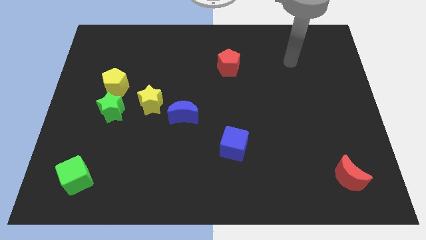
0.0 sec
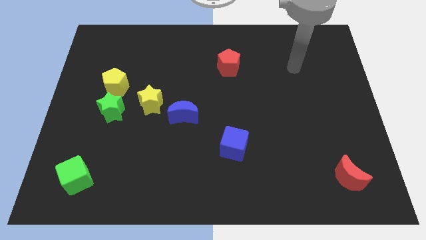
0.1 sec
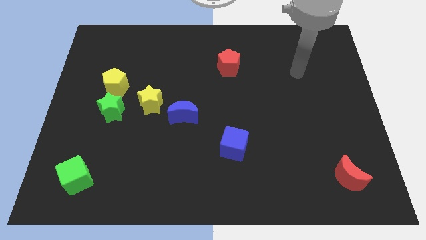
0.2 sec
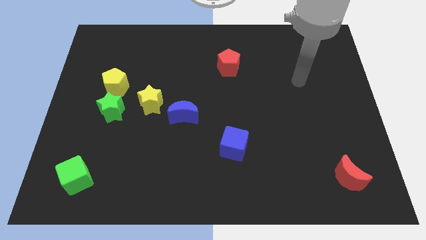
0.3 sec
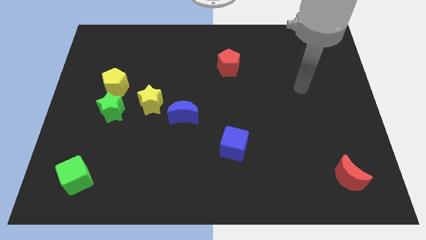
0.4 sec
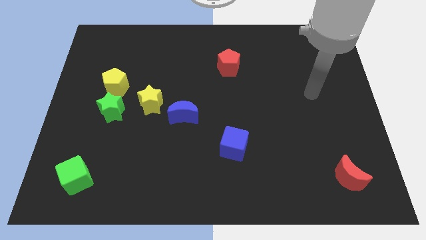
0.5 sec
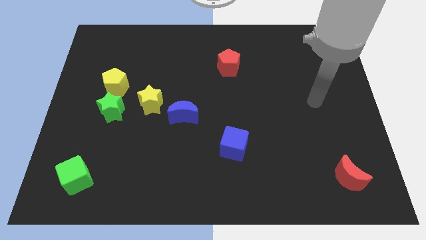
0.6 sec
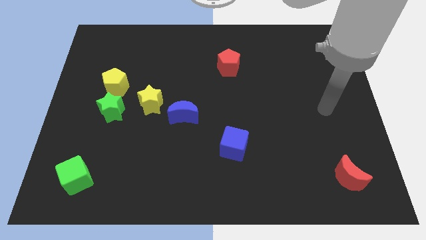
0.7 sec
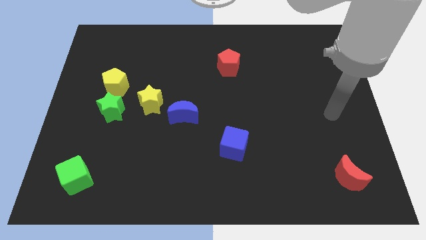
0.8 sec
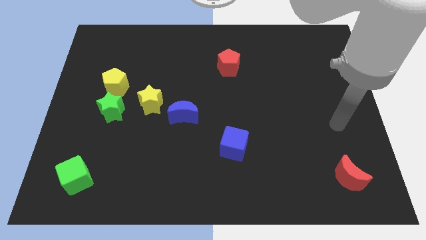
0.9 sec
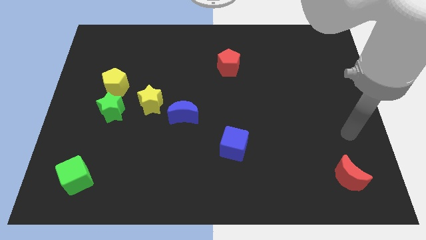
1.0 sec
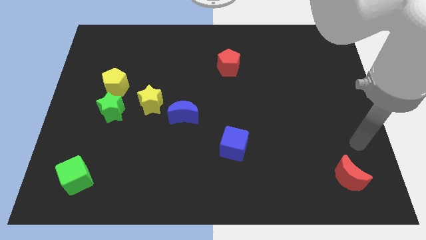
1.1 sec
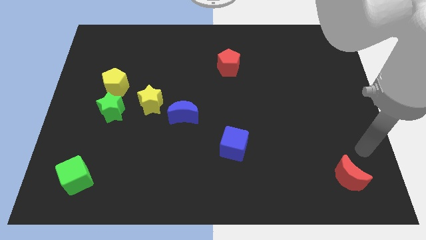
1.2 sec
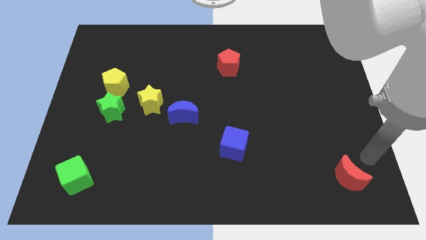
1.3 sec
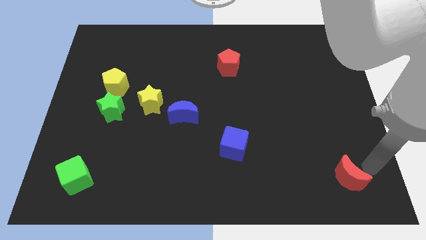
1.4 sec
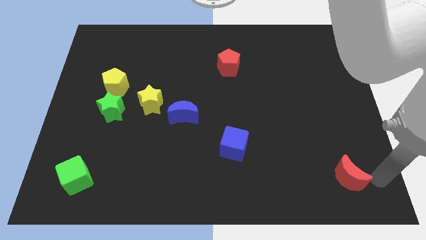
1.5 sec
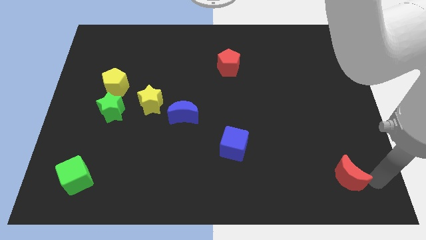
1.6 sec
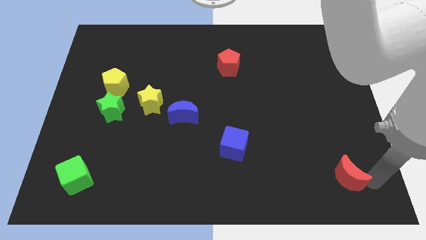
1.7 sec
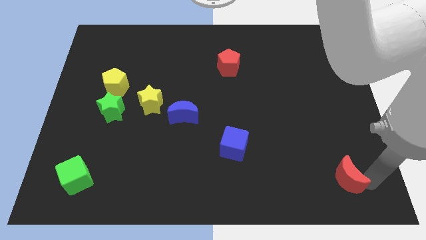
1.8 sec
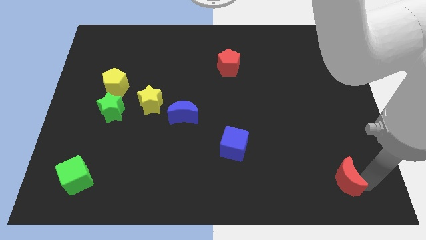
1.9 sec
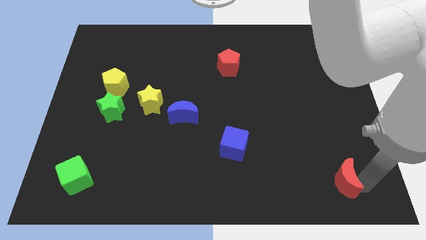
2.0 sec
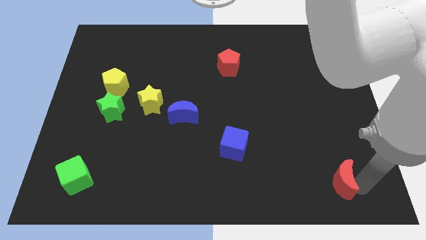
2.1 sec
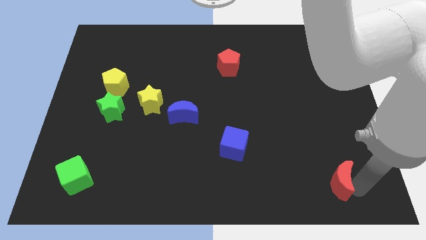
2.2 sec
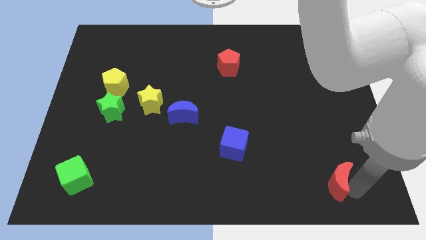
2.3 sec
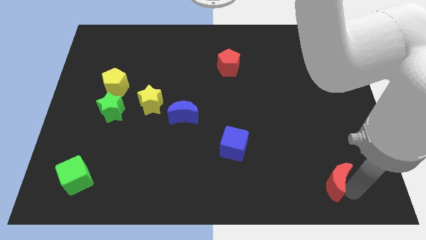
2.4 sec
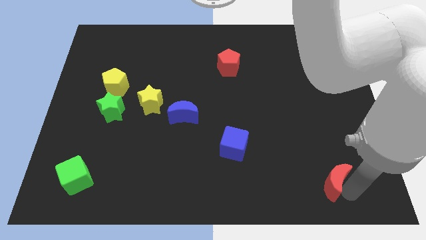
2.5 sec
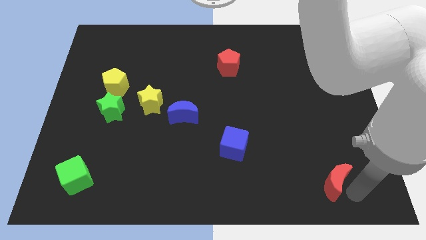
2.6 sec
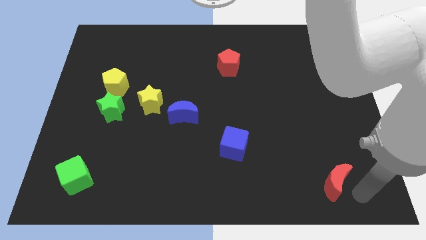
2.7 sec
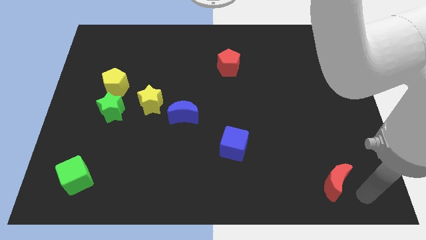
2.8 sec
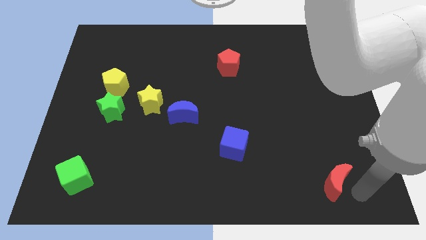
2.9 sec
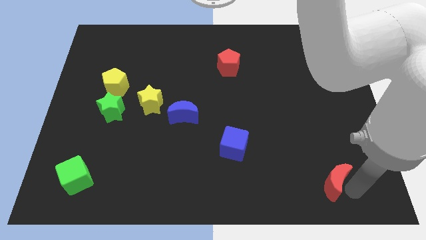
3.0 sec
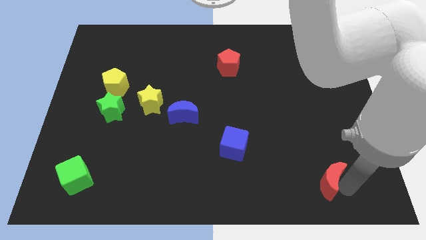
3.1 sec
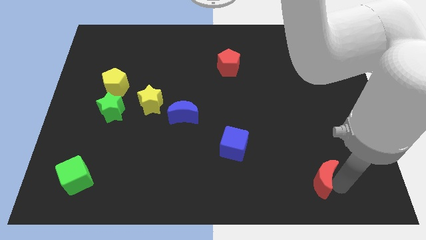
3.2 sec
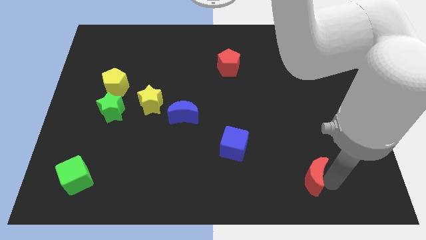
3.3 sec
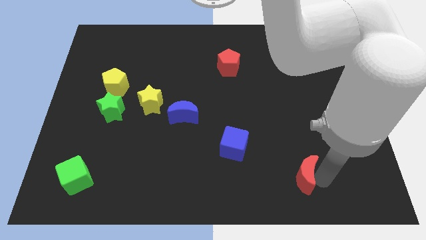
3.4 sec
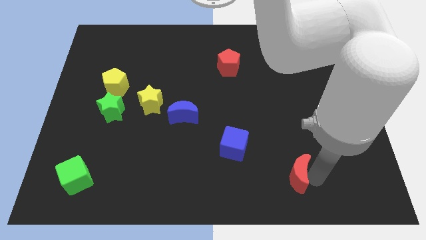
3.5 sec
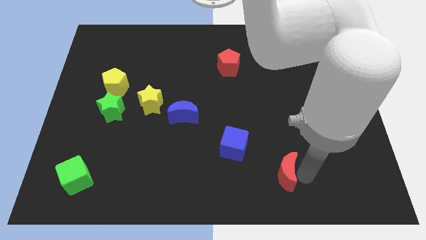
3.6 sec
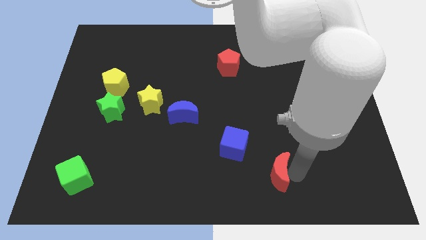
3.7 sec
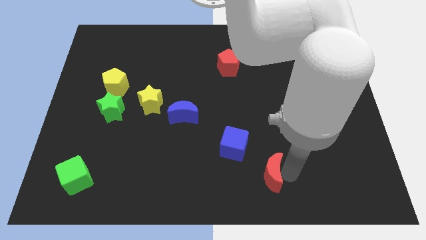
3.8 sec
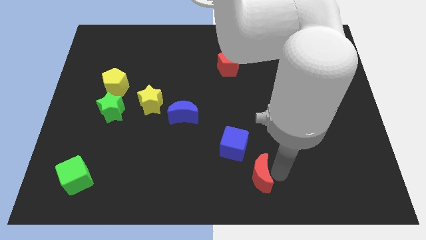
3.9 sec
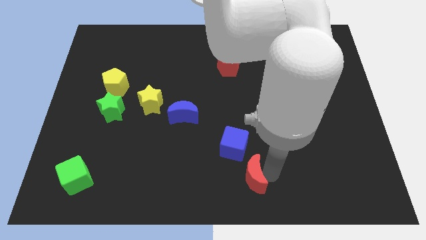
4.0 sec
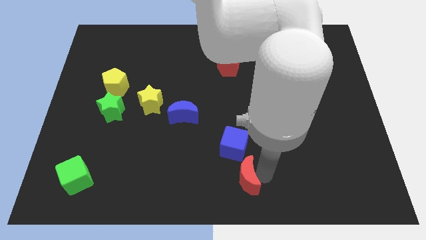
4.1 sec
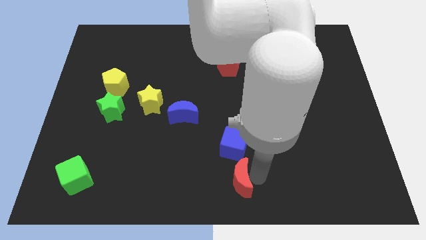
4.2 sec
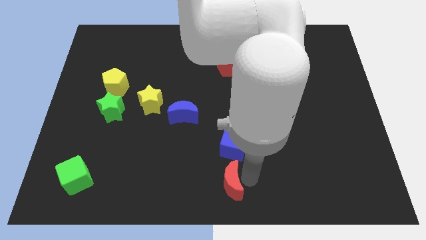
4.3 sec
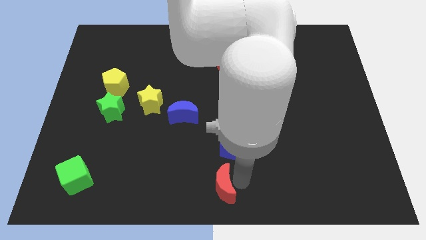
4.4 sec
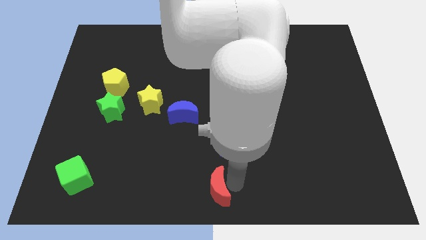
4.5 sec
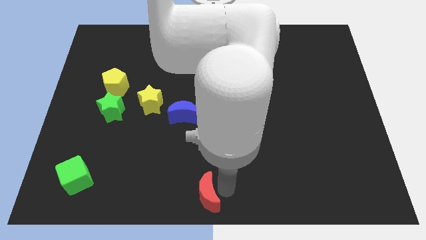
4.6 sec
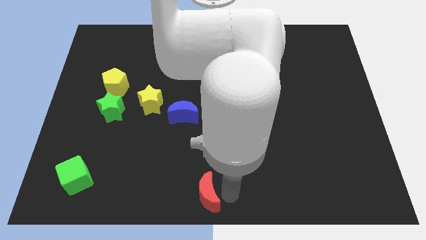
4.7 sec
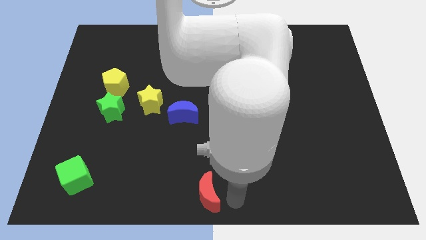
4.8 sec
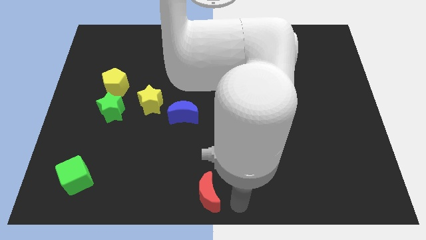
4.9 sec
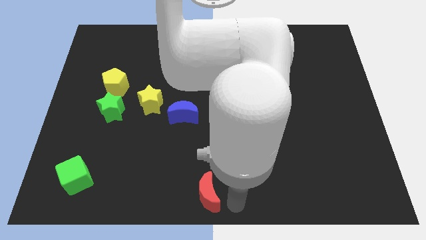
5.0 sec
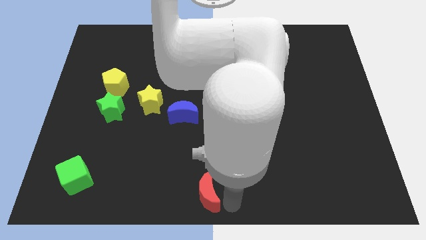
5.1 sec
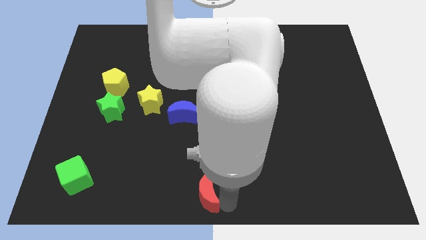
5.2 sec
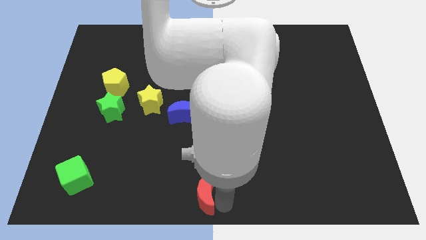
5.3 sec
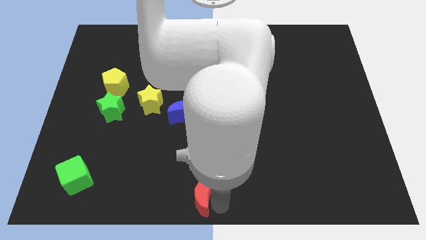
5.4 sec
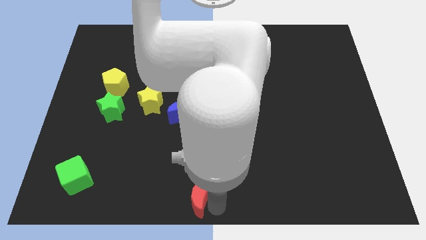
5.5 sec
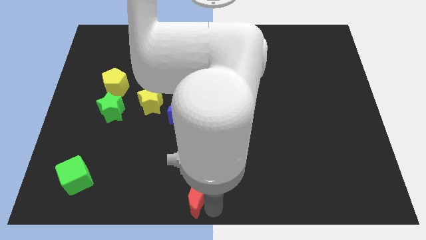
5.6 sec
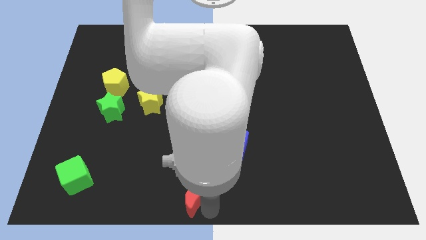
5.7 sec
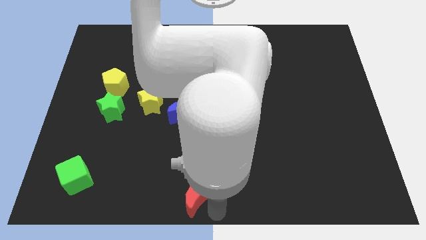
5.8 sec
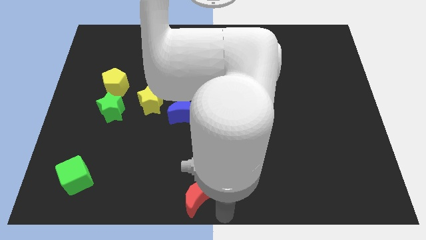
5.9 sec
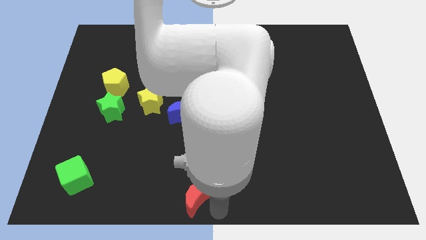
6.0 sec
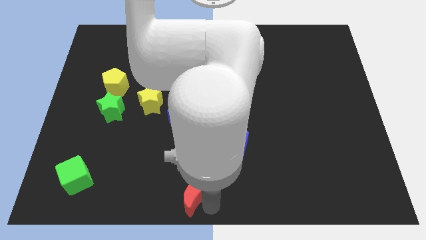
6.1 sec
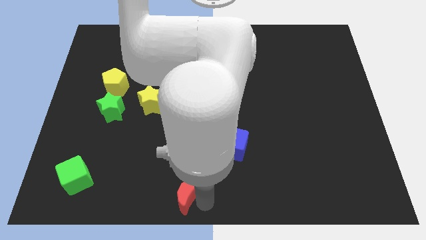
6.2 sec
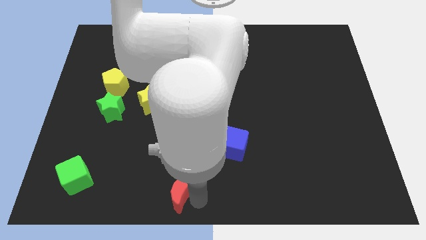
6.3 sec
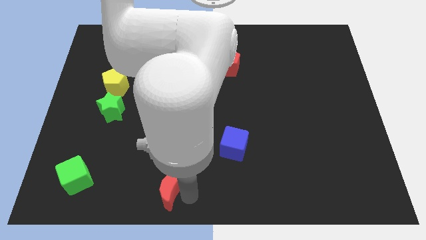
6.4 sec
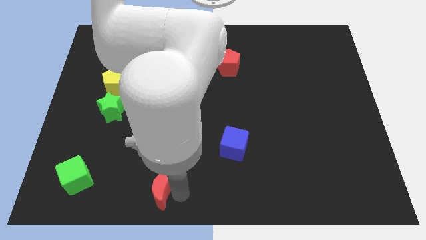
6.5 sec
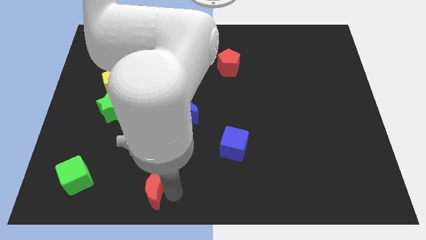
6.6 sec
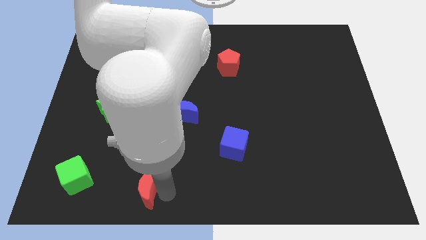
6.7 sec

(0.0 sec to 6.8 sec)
slide the red moon right of the green cube

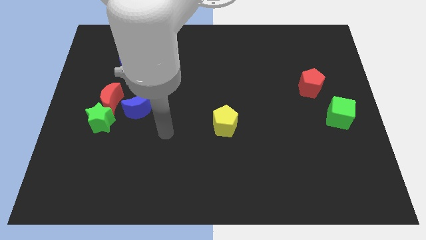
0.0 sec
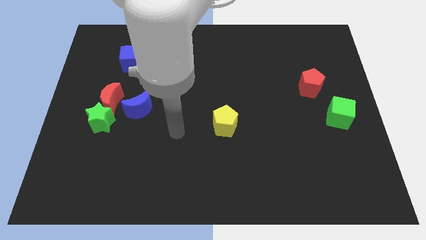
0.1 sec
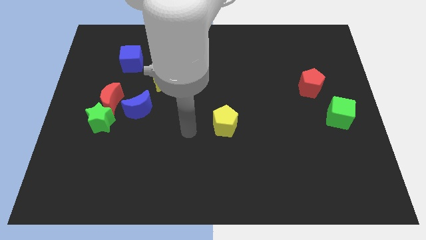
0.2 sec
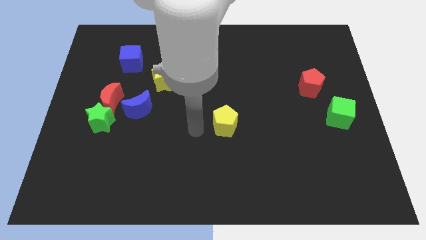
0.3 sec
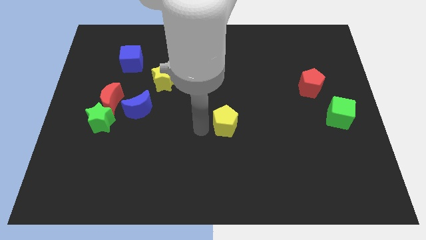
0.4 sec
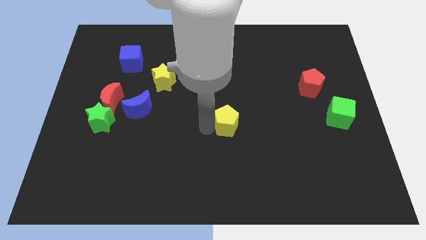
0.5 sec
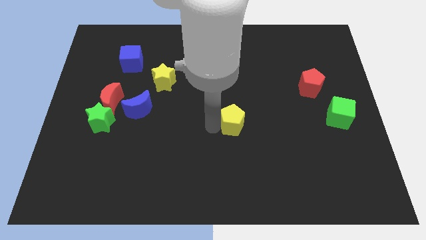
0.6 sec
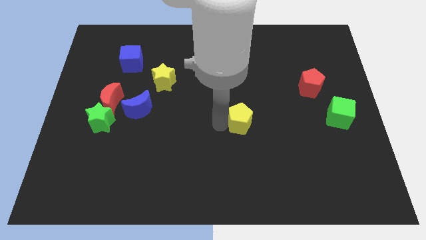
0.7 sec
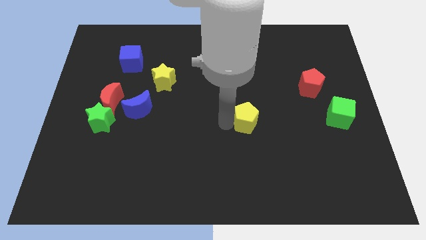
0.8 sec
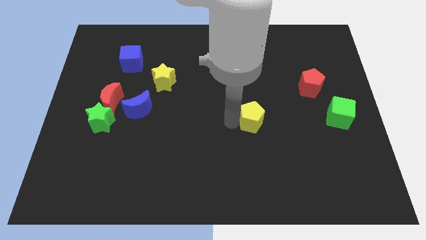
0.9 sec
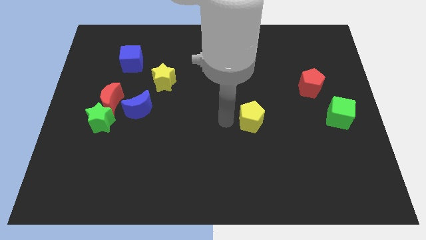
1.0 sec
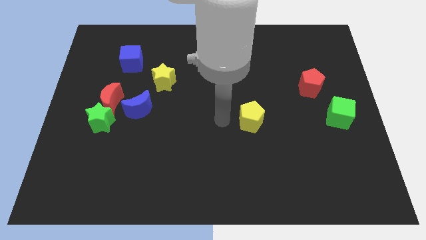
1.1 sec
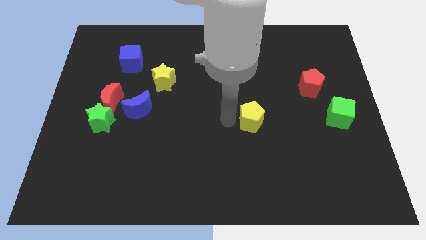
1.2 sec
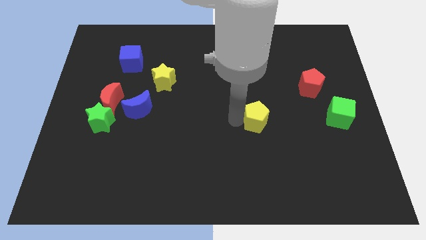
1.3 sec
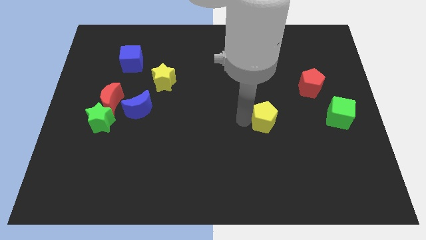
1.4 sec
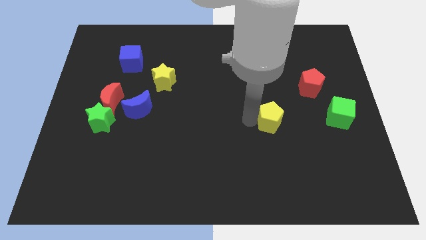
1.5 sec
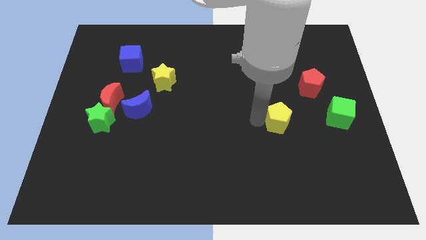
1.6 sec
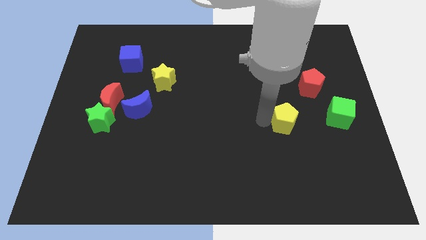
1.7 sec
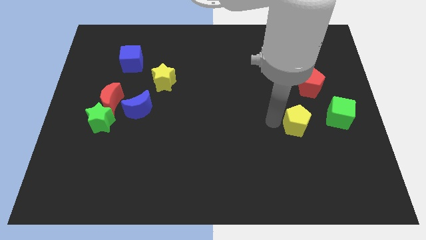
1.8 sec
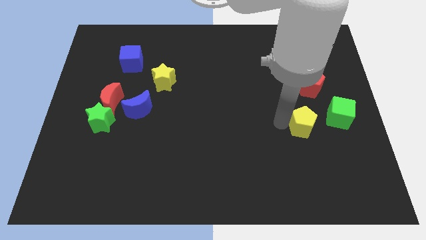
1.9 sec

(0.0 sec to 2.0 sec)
move the yellow pentagon to the bottom side of the red pentagon
